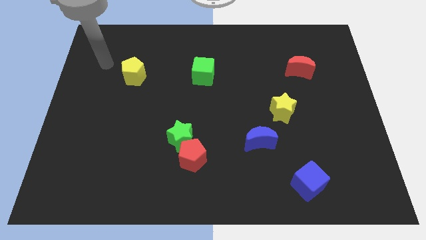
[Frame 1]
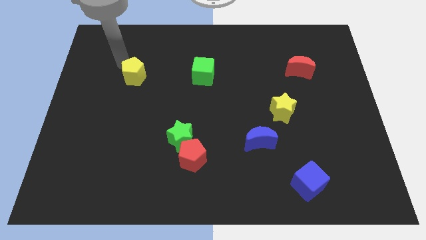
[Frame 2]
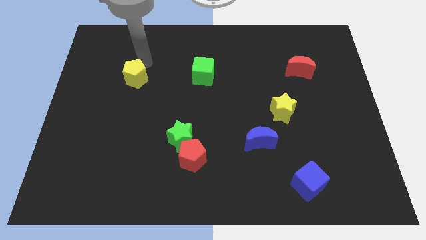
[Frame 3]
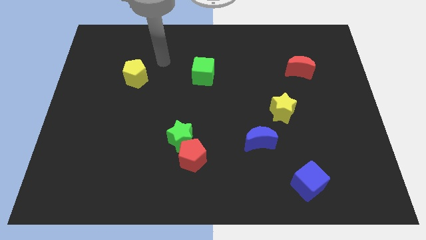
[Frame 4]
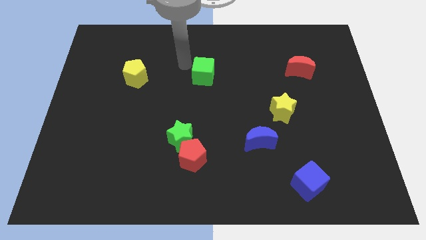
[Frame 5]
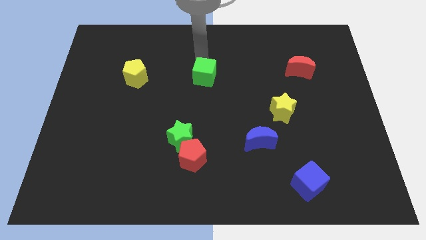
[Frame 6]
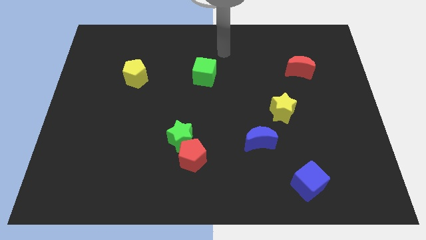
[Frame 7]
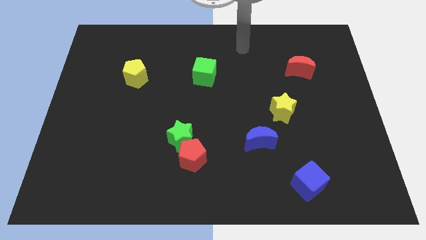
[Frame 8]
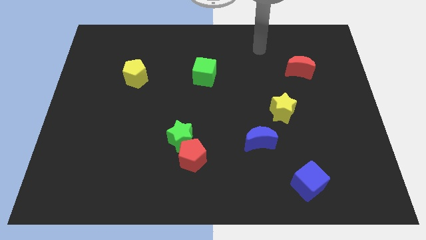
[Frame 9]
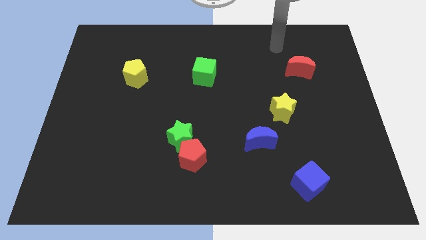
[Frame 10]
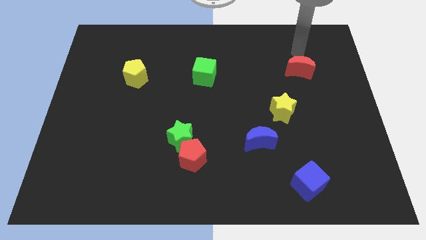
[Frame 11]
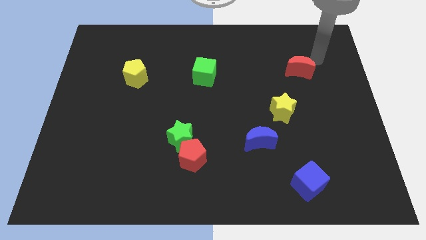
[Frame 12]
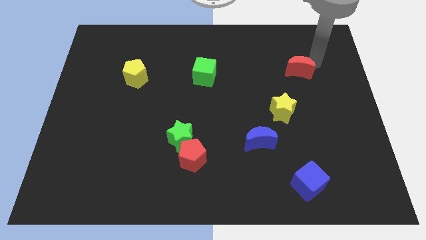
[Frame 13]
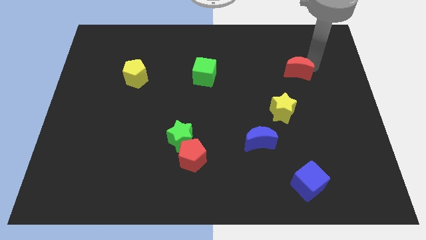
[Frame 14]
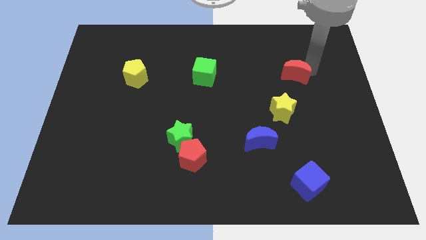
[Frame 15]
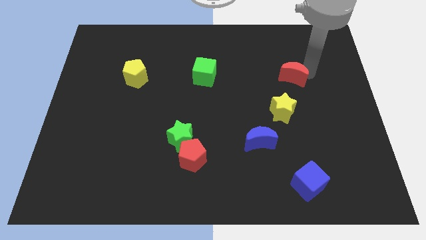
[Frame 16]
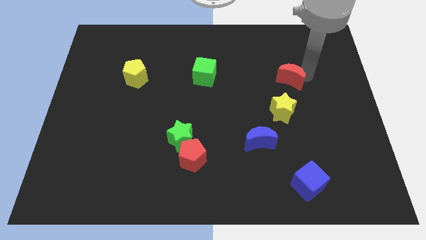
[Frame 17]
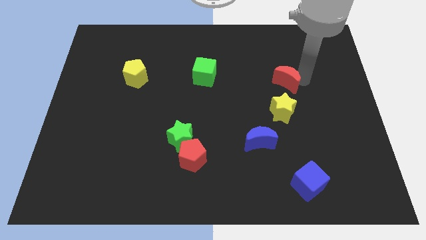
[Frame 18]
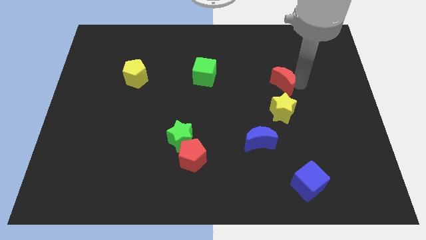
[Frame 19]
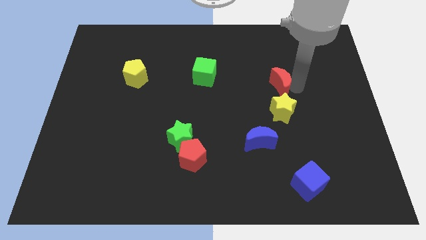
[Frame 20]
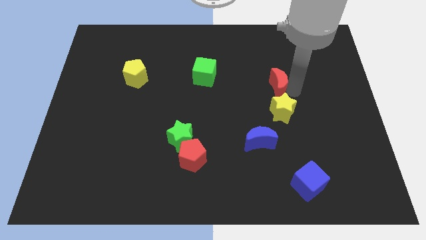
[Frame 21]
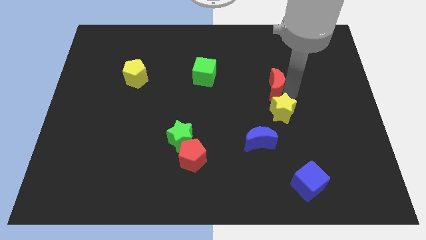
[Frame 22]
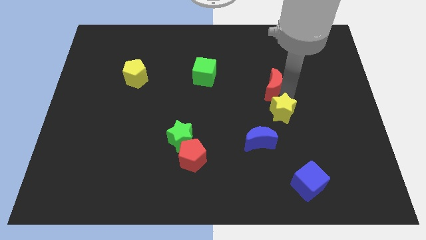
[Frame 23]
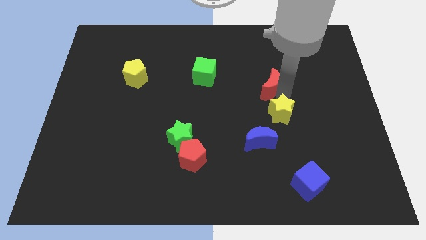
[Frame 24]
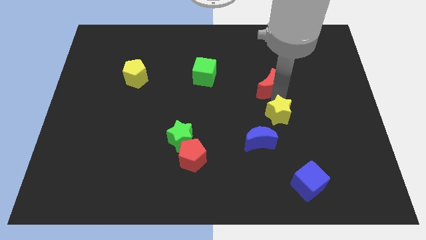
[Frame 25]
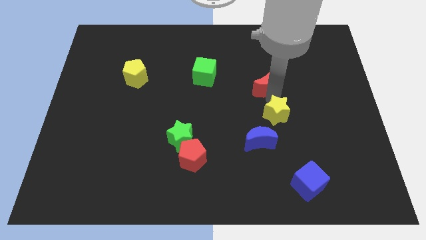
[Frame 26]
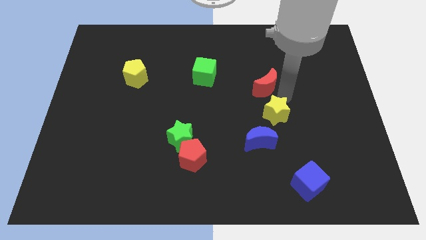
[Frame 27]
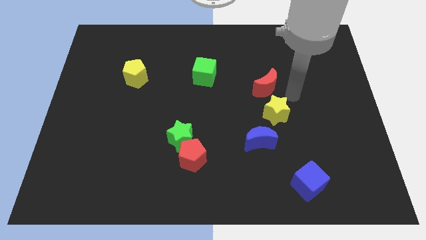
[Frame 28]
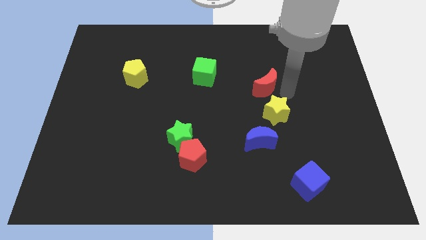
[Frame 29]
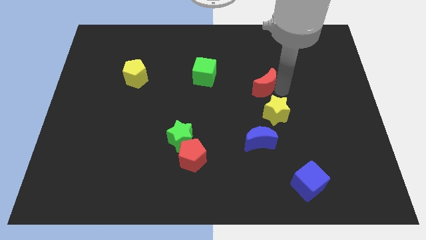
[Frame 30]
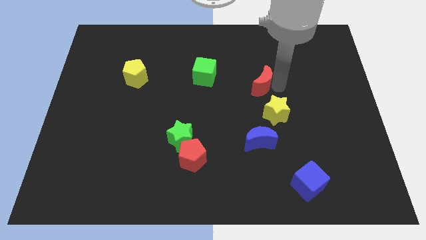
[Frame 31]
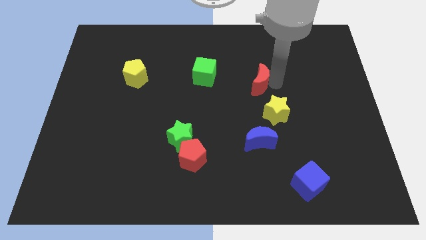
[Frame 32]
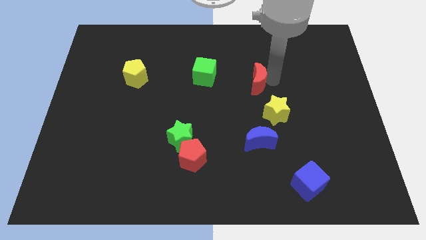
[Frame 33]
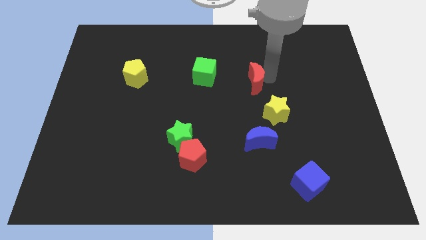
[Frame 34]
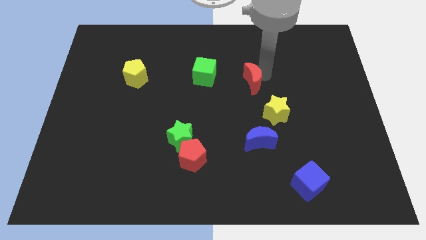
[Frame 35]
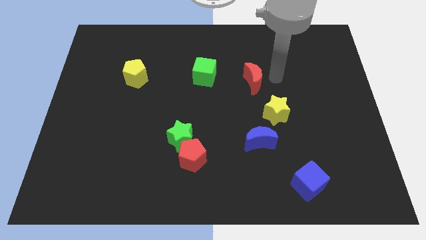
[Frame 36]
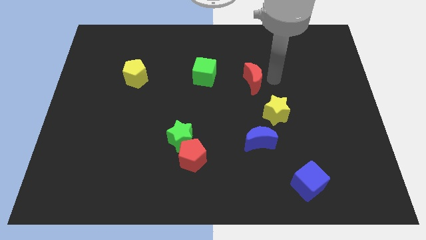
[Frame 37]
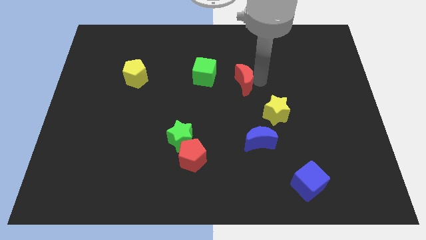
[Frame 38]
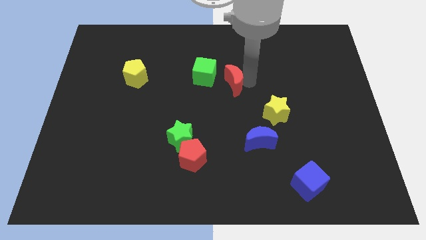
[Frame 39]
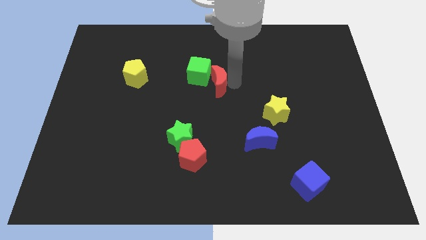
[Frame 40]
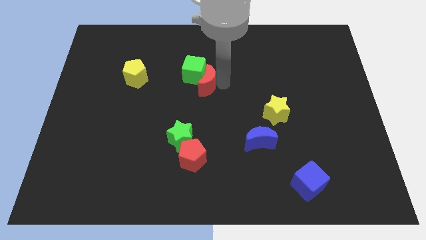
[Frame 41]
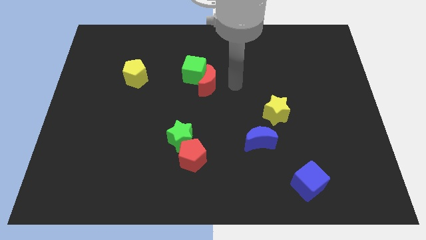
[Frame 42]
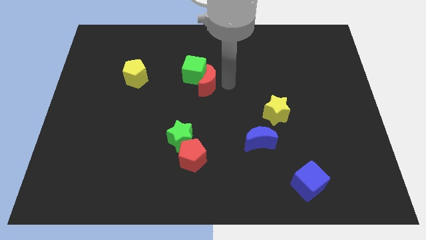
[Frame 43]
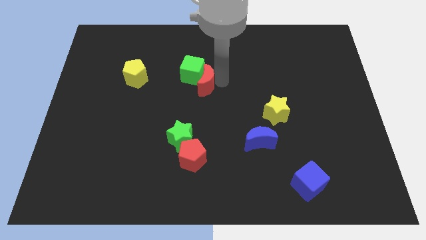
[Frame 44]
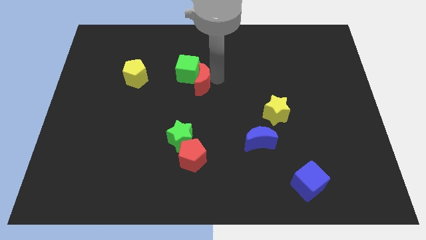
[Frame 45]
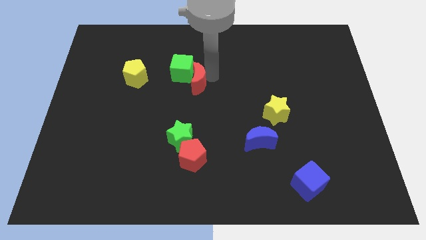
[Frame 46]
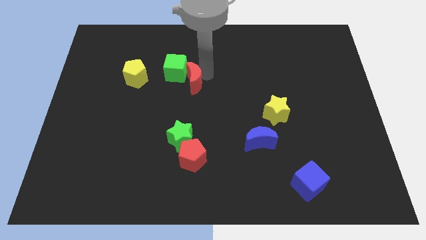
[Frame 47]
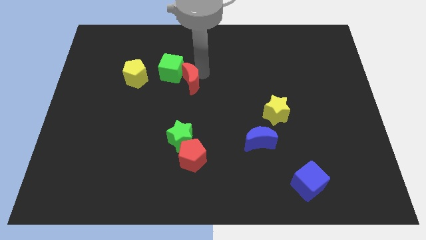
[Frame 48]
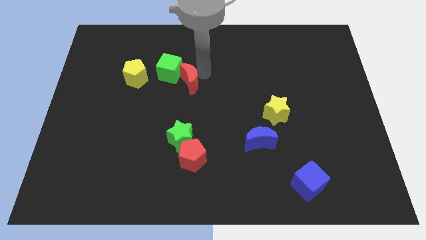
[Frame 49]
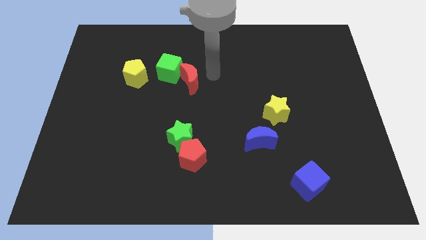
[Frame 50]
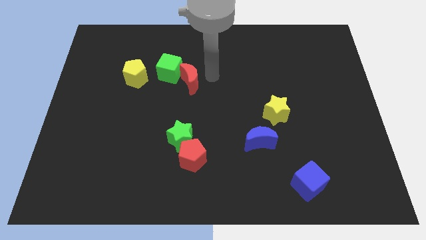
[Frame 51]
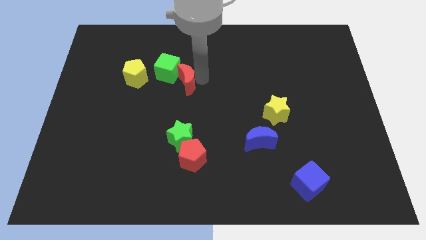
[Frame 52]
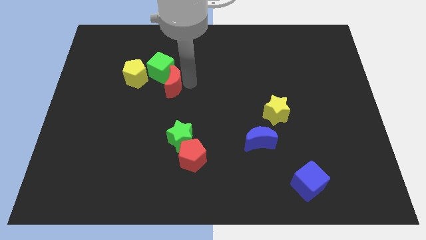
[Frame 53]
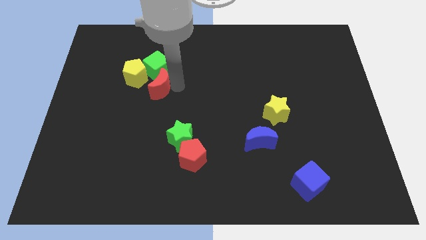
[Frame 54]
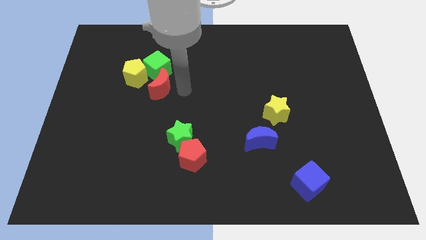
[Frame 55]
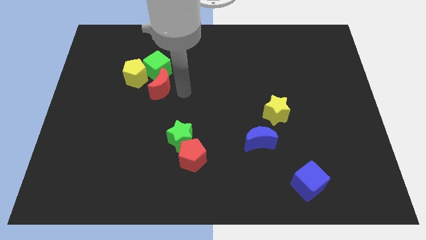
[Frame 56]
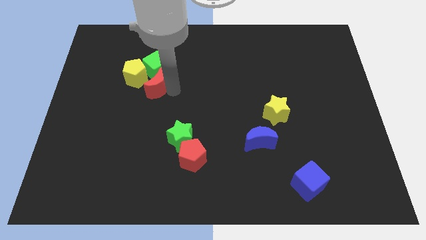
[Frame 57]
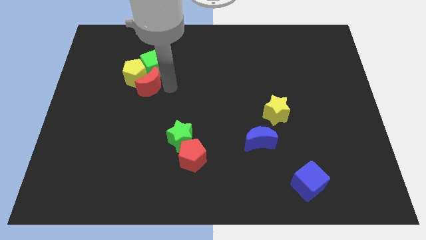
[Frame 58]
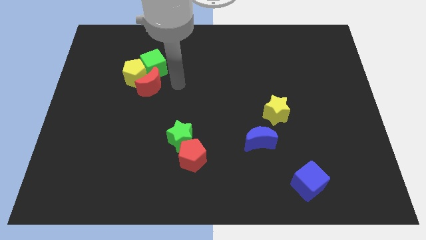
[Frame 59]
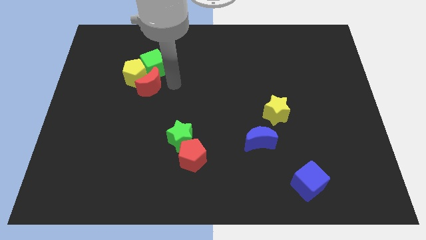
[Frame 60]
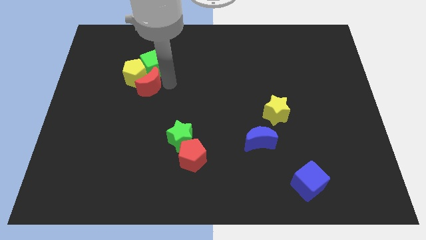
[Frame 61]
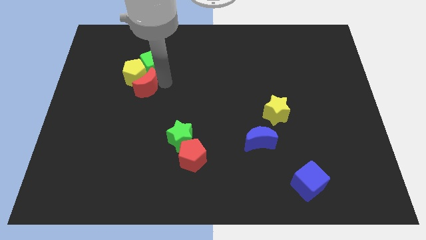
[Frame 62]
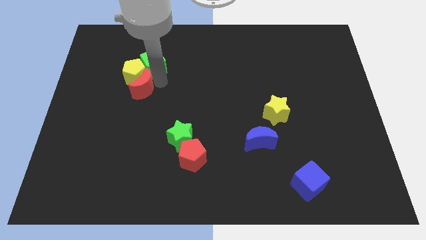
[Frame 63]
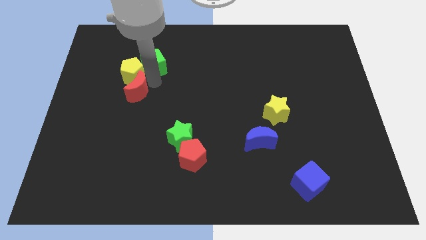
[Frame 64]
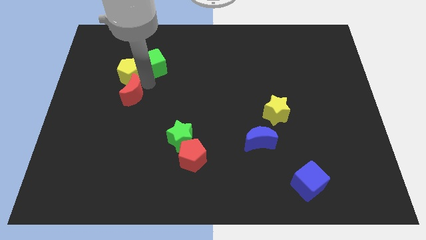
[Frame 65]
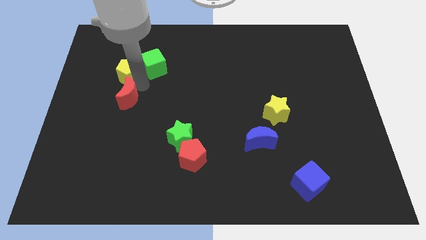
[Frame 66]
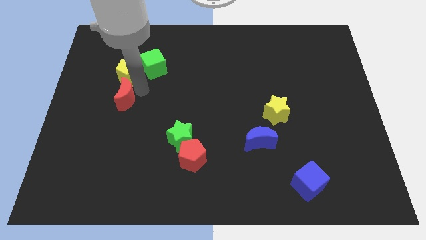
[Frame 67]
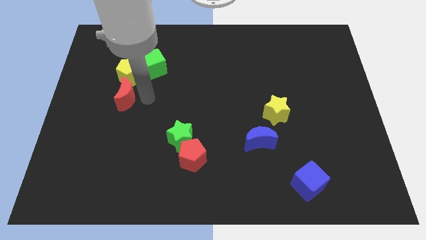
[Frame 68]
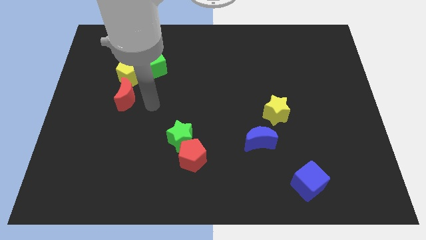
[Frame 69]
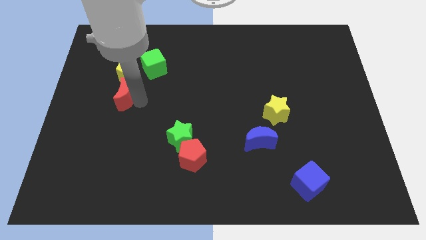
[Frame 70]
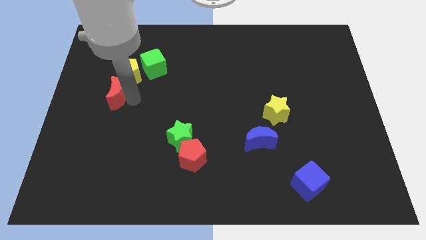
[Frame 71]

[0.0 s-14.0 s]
slide the red moon diagonally down and to the left of the yellow pentagon
